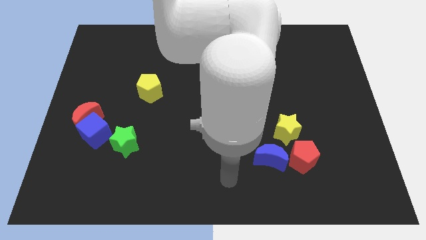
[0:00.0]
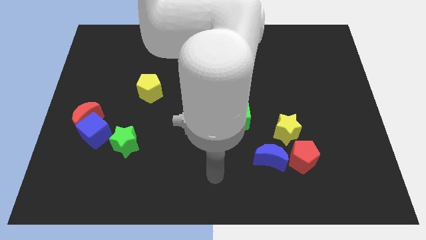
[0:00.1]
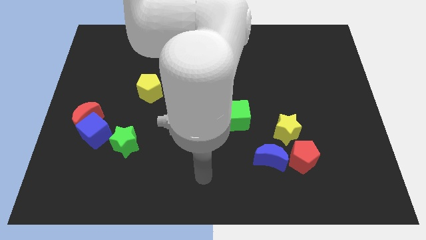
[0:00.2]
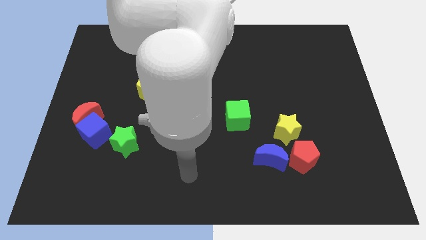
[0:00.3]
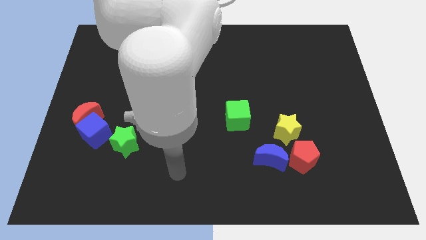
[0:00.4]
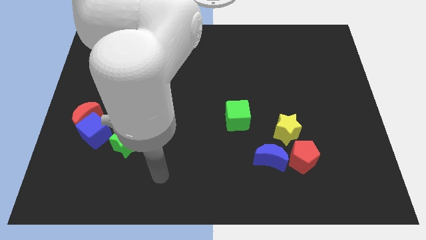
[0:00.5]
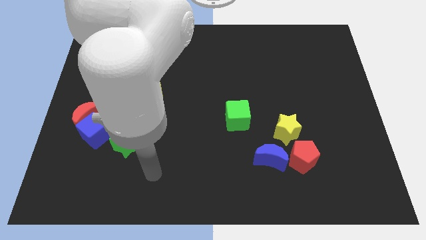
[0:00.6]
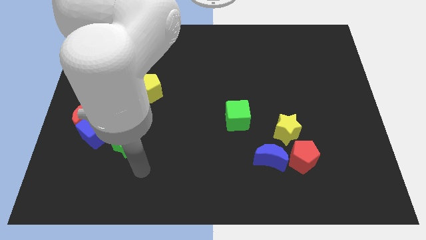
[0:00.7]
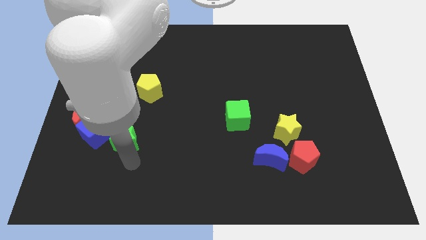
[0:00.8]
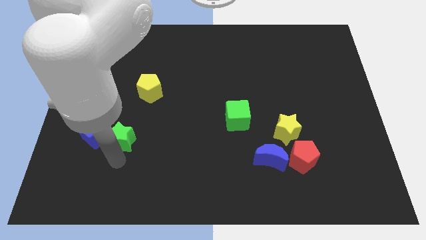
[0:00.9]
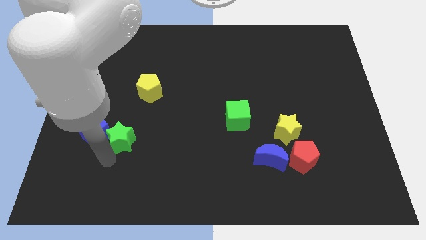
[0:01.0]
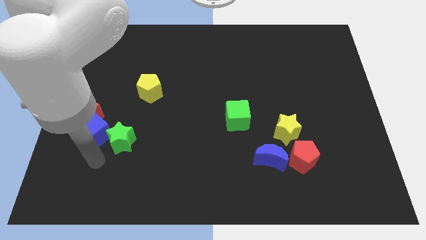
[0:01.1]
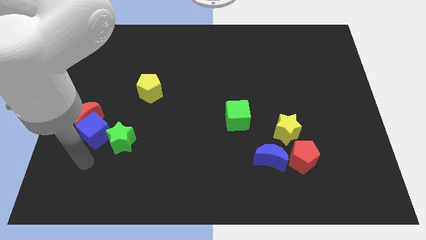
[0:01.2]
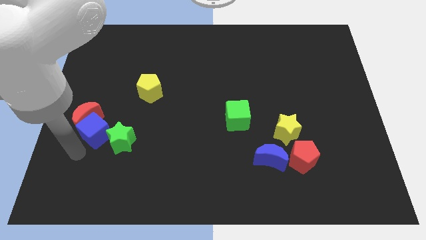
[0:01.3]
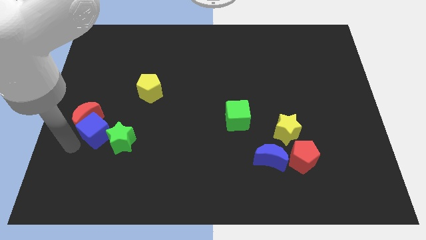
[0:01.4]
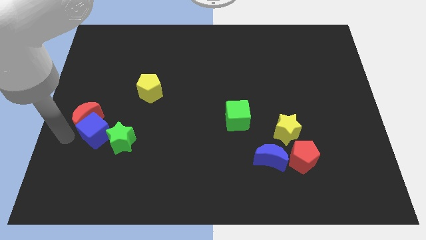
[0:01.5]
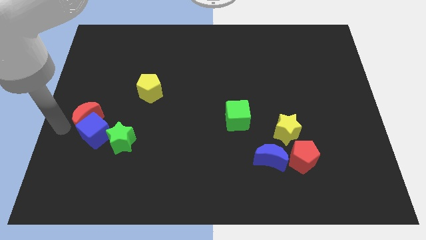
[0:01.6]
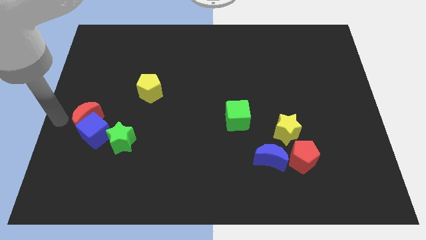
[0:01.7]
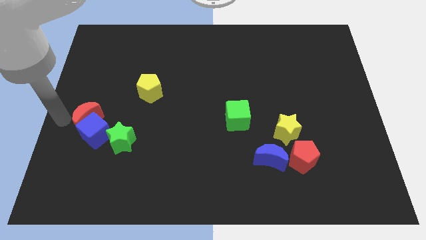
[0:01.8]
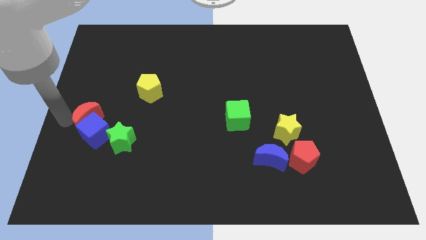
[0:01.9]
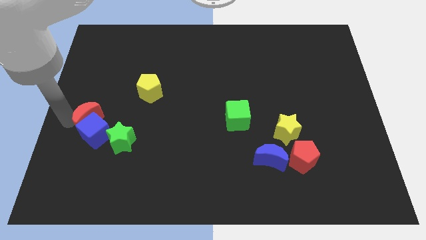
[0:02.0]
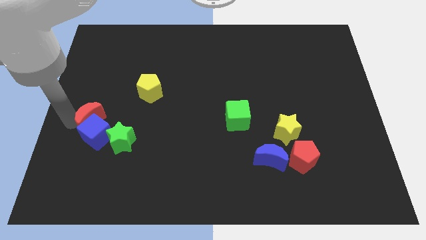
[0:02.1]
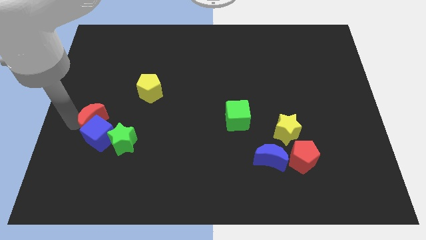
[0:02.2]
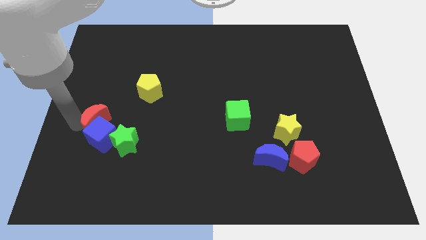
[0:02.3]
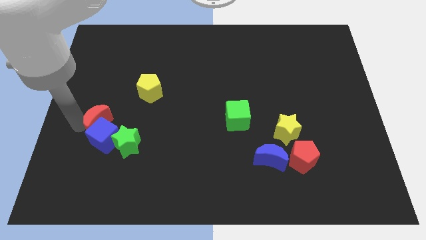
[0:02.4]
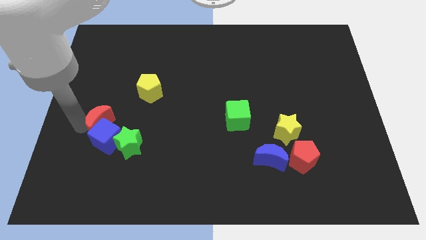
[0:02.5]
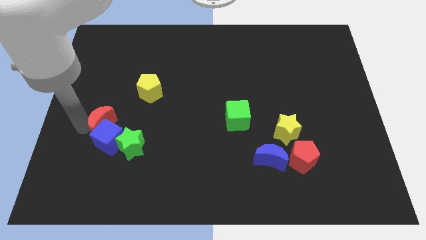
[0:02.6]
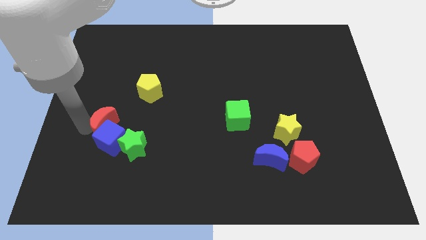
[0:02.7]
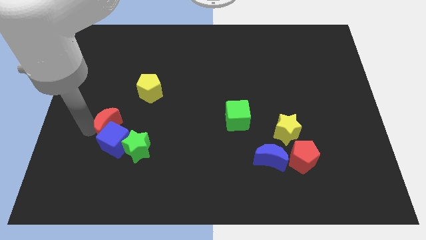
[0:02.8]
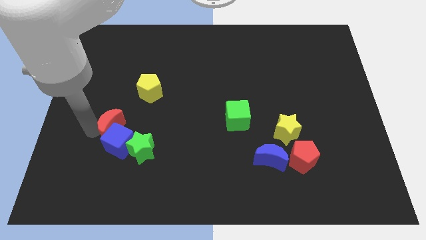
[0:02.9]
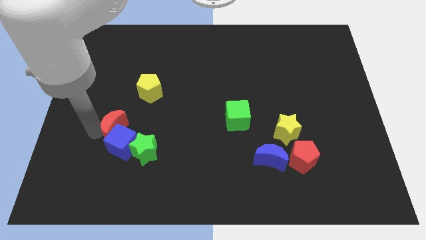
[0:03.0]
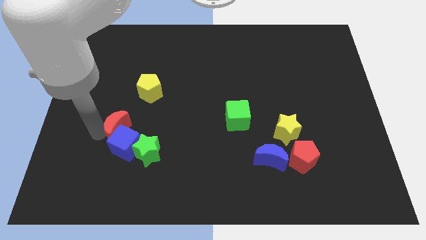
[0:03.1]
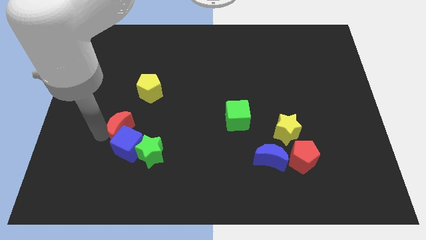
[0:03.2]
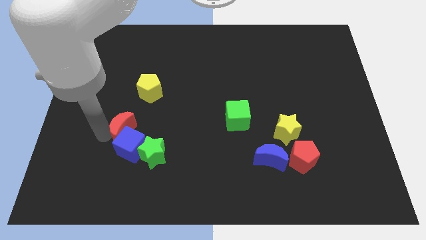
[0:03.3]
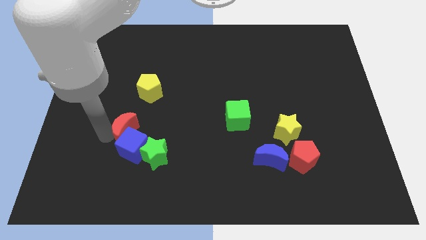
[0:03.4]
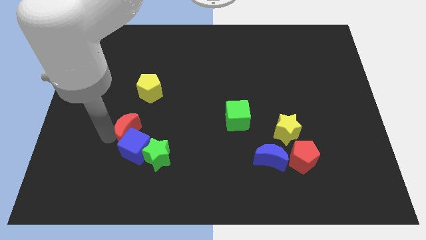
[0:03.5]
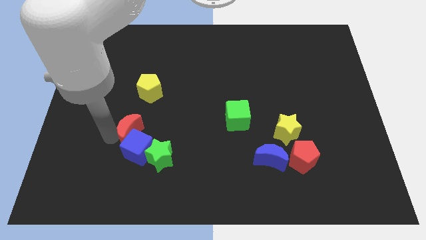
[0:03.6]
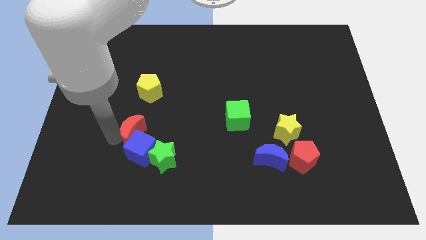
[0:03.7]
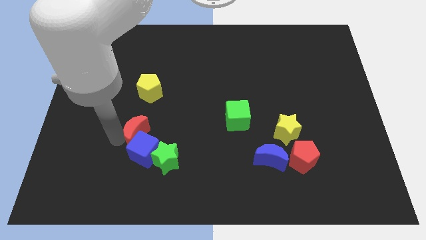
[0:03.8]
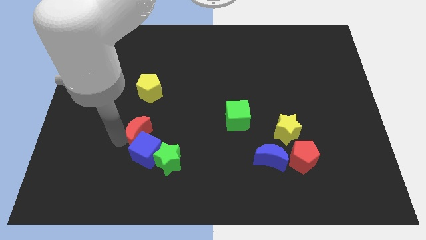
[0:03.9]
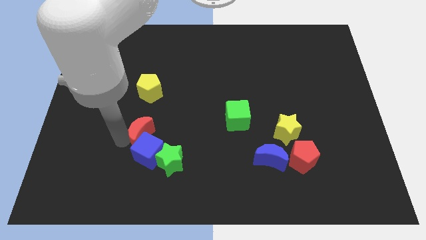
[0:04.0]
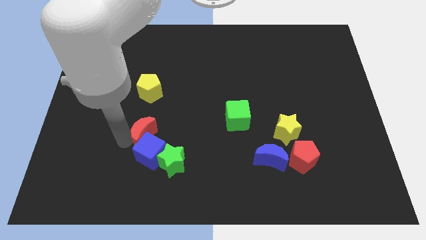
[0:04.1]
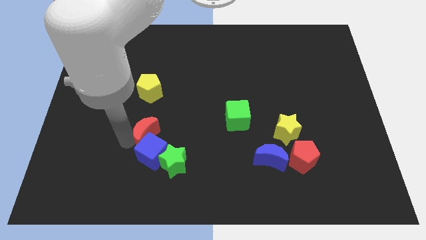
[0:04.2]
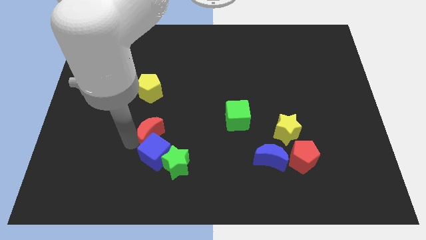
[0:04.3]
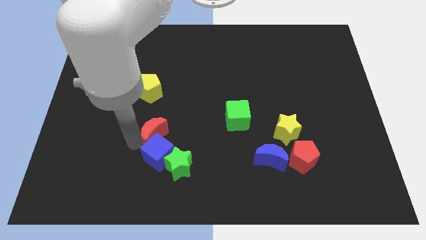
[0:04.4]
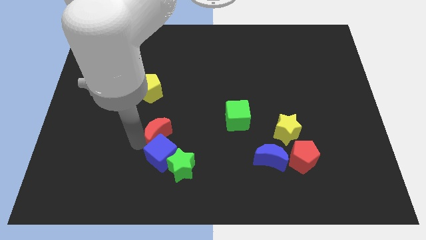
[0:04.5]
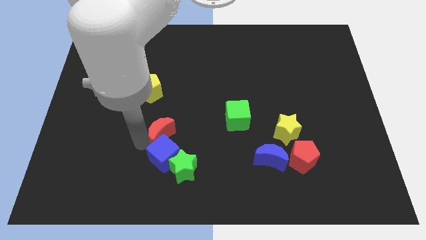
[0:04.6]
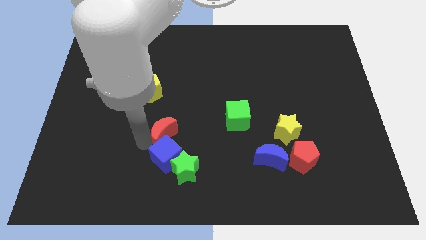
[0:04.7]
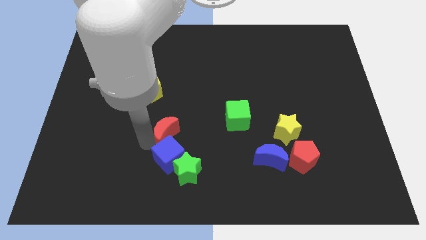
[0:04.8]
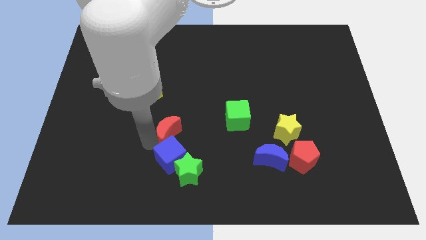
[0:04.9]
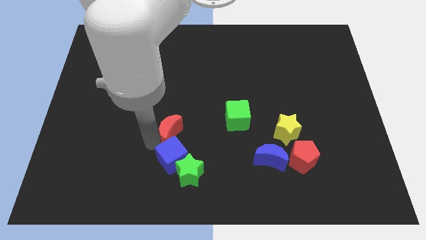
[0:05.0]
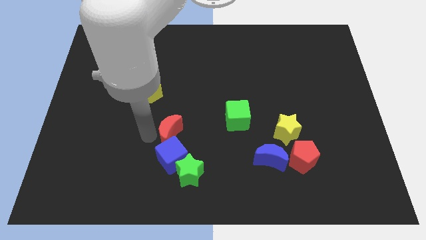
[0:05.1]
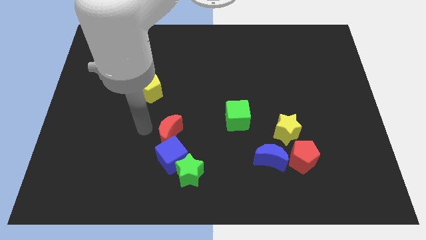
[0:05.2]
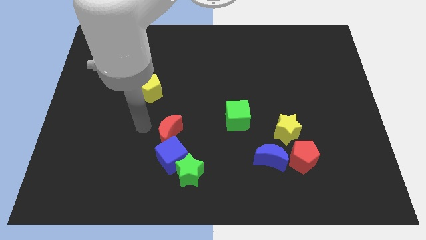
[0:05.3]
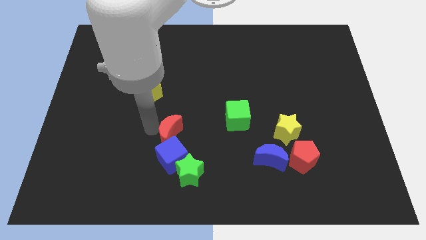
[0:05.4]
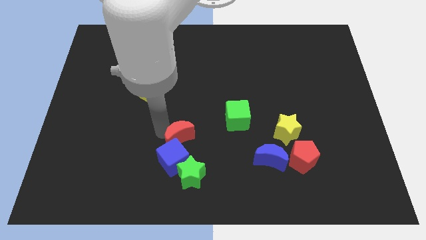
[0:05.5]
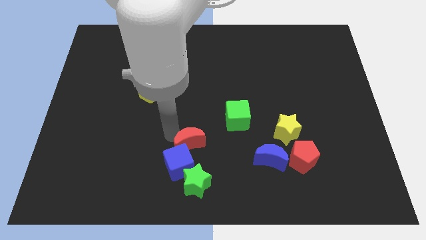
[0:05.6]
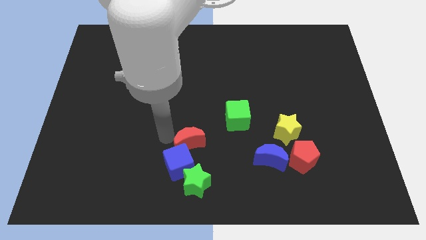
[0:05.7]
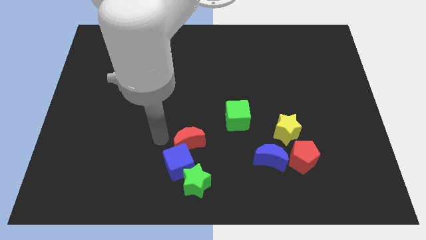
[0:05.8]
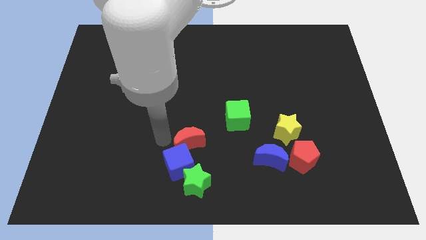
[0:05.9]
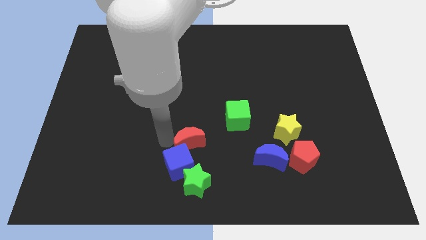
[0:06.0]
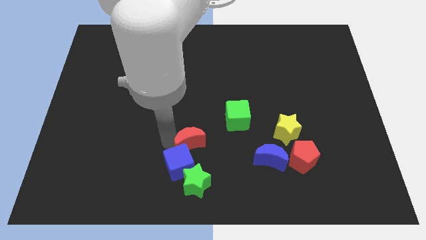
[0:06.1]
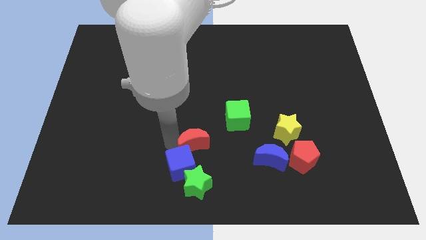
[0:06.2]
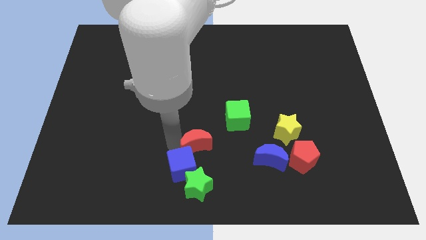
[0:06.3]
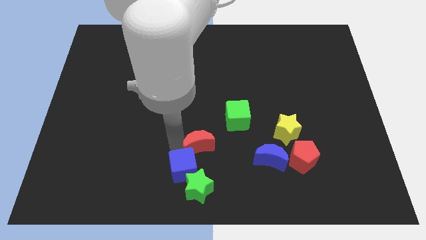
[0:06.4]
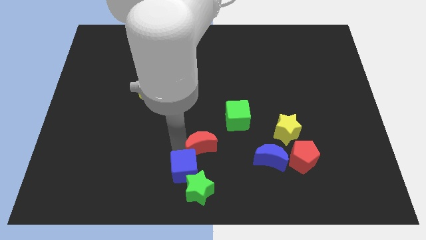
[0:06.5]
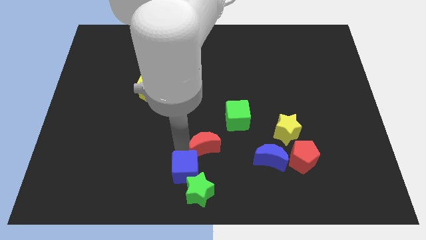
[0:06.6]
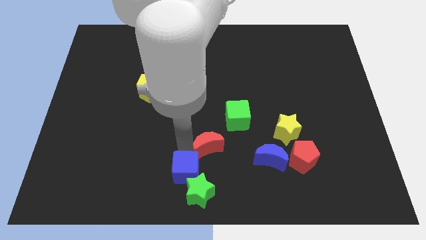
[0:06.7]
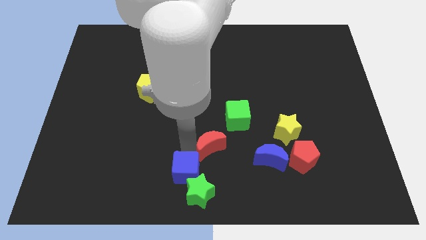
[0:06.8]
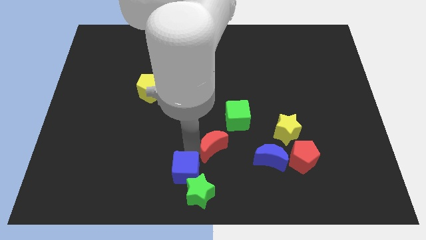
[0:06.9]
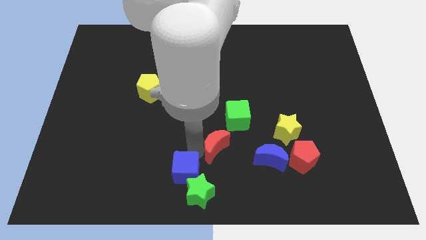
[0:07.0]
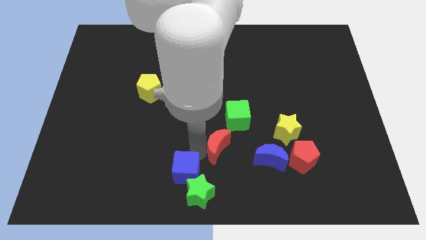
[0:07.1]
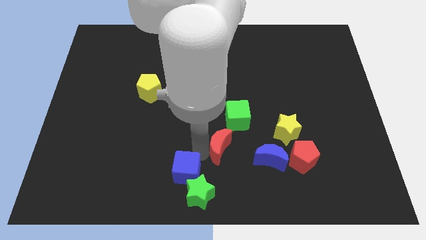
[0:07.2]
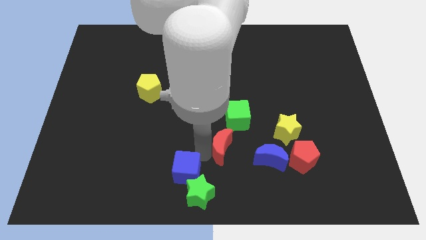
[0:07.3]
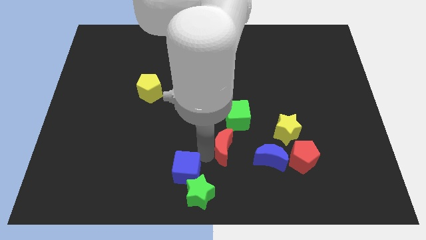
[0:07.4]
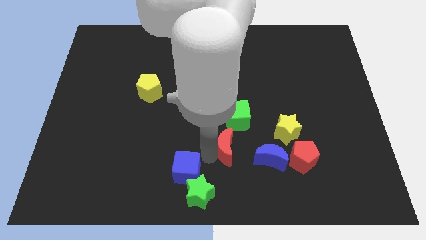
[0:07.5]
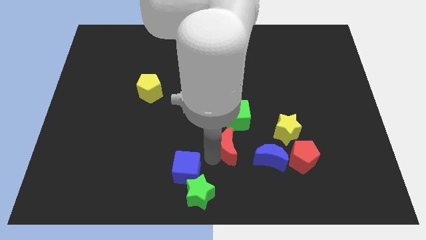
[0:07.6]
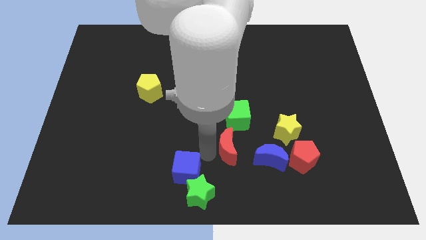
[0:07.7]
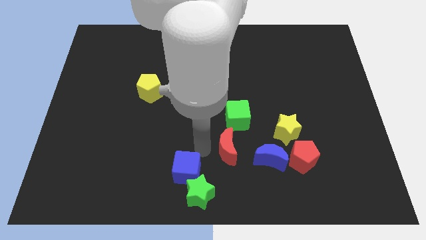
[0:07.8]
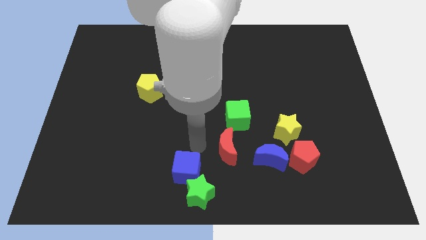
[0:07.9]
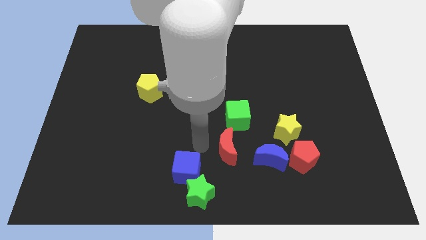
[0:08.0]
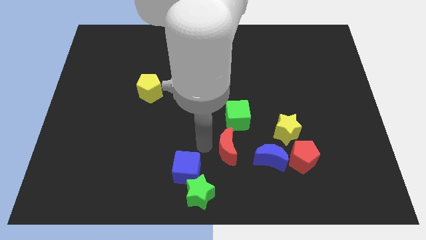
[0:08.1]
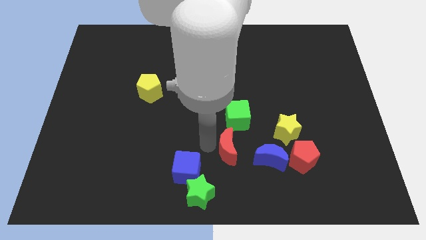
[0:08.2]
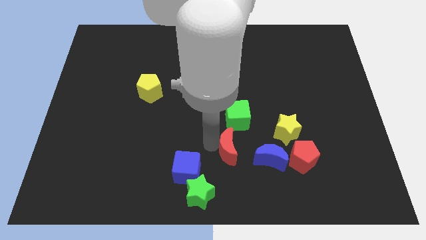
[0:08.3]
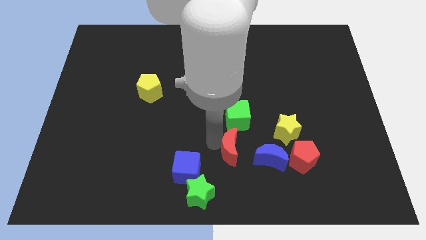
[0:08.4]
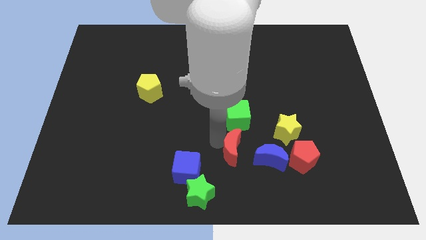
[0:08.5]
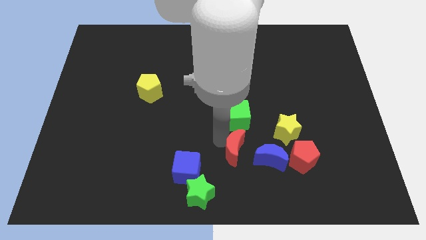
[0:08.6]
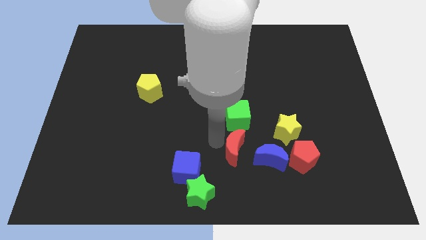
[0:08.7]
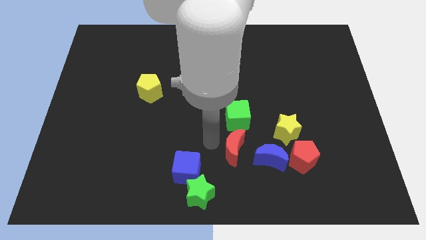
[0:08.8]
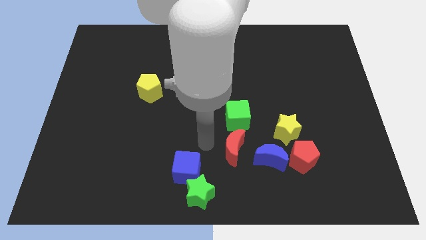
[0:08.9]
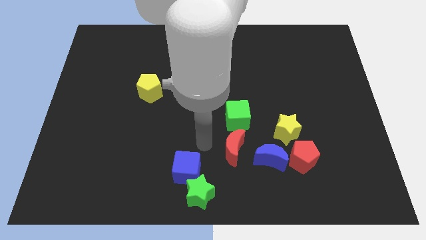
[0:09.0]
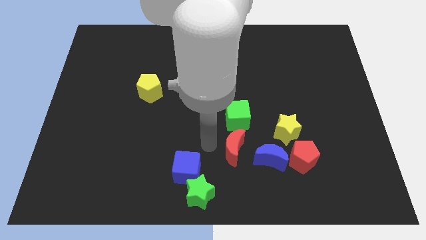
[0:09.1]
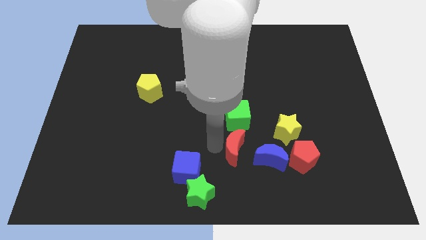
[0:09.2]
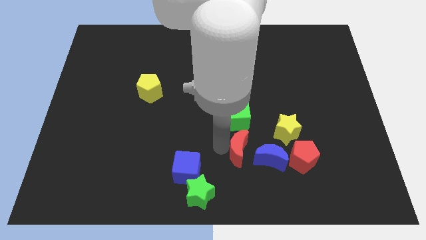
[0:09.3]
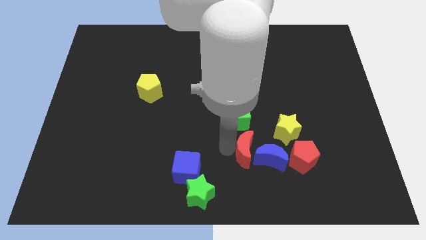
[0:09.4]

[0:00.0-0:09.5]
move the red moon close to the blue moon
